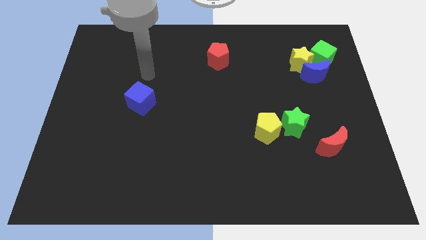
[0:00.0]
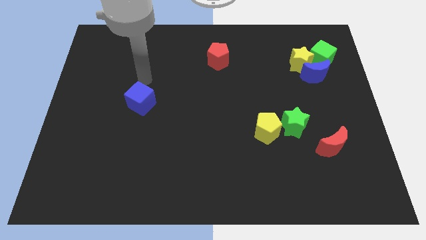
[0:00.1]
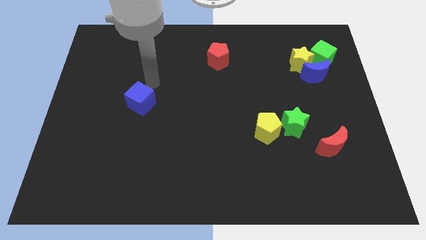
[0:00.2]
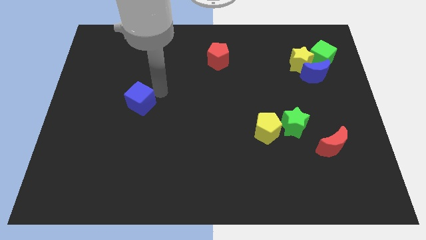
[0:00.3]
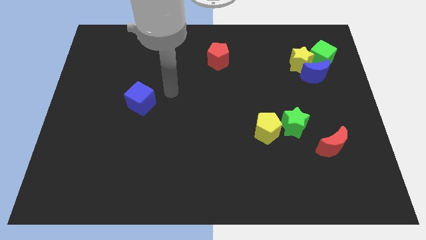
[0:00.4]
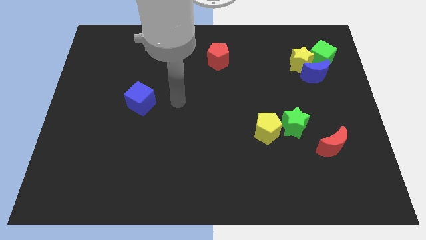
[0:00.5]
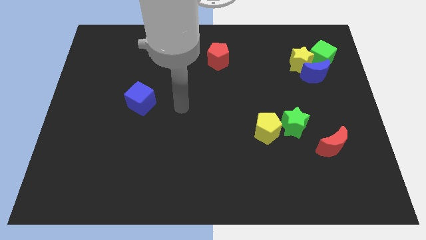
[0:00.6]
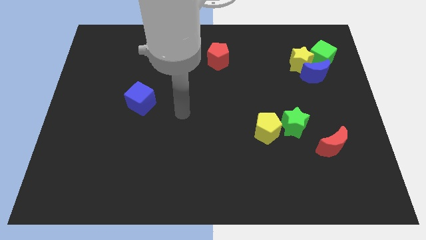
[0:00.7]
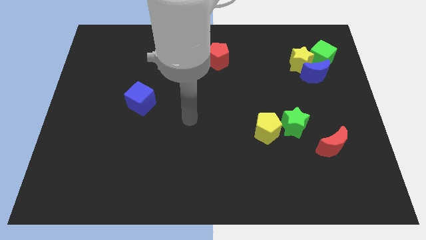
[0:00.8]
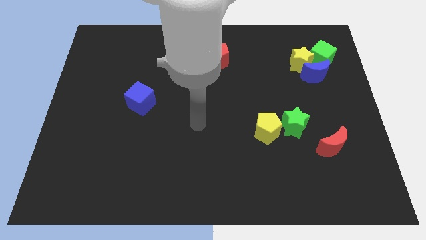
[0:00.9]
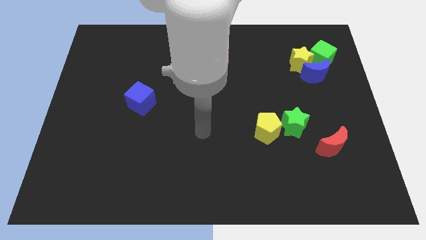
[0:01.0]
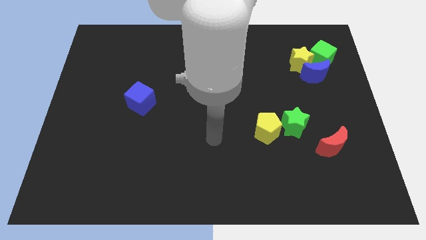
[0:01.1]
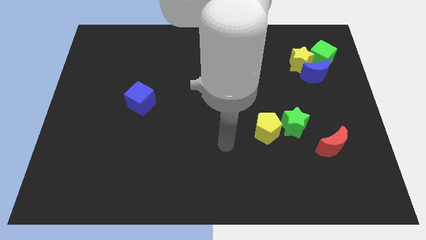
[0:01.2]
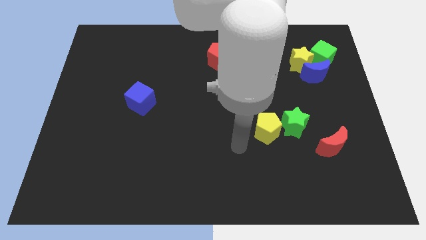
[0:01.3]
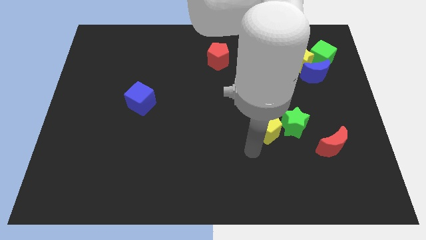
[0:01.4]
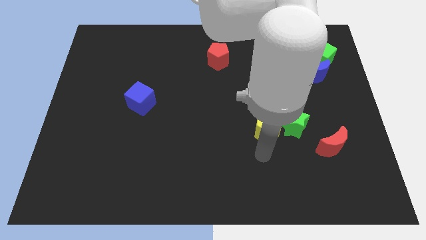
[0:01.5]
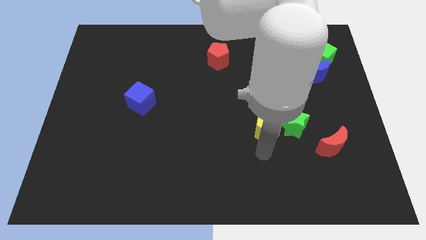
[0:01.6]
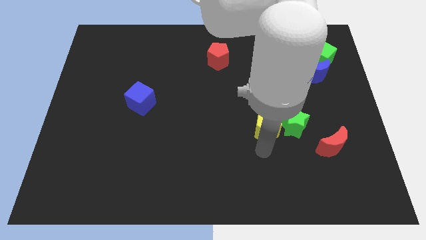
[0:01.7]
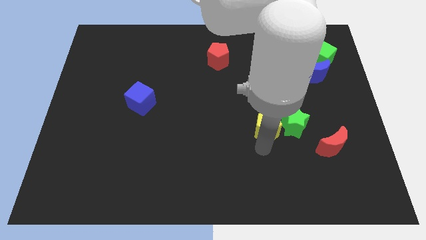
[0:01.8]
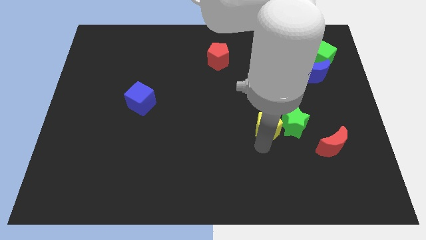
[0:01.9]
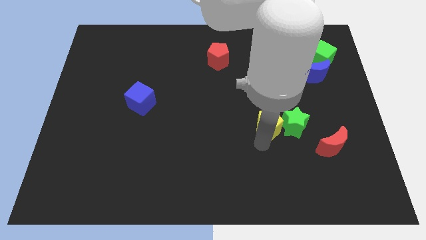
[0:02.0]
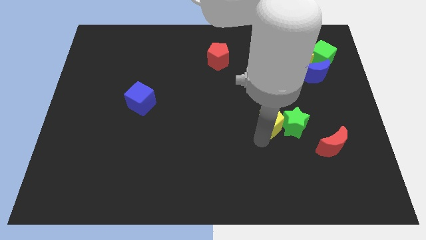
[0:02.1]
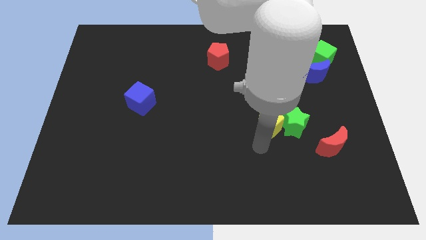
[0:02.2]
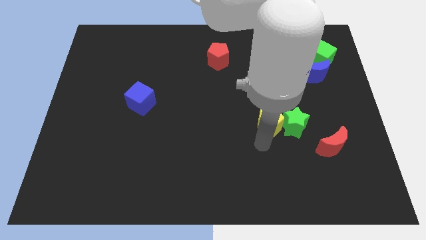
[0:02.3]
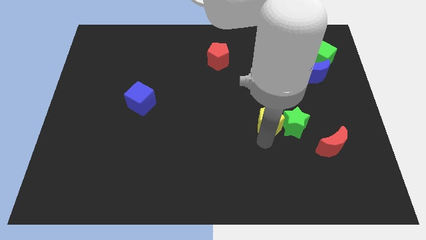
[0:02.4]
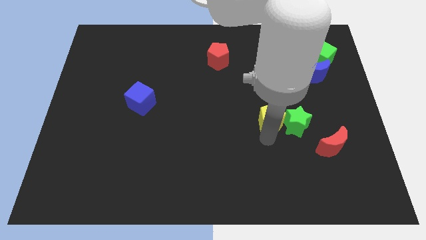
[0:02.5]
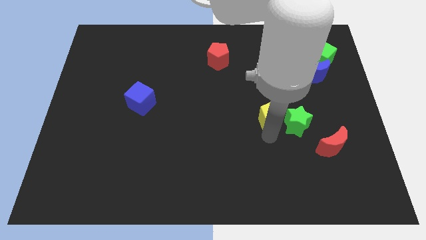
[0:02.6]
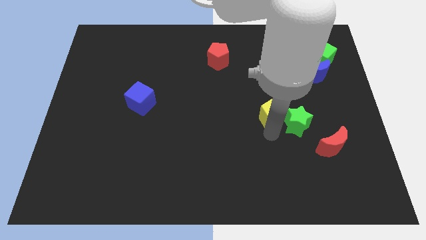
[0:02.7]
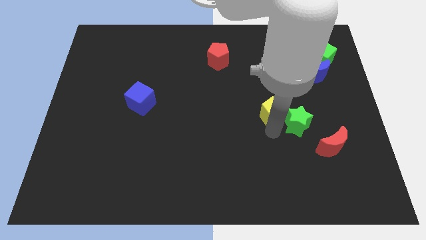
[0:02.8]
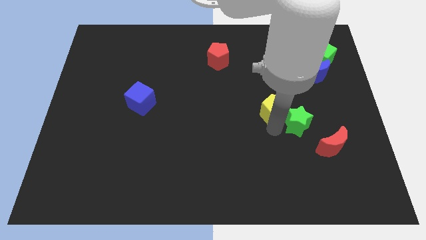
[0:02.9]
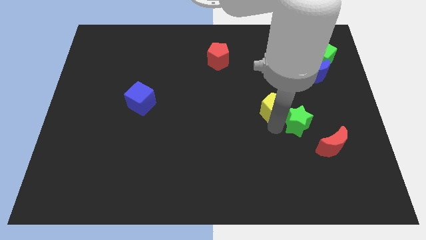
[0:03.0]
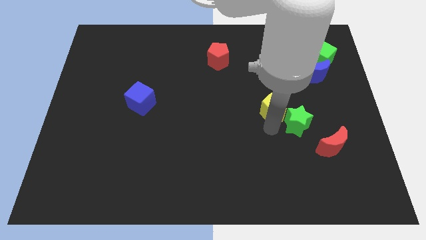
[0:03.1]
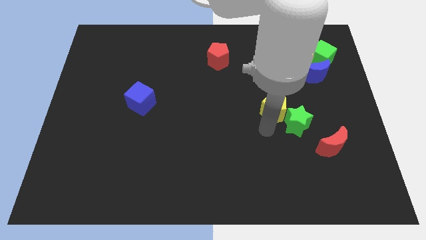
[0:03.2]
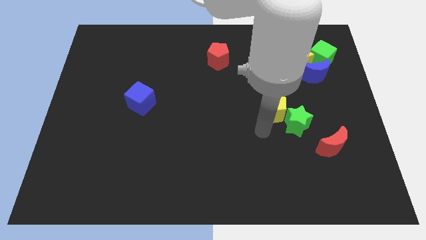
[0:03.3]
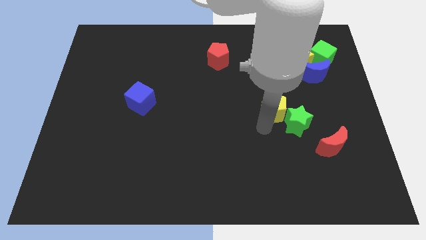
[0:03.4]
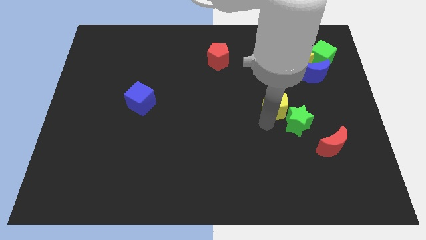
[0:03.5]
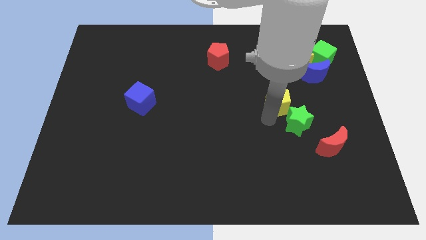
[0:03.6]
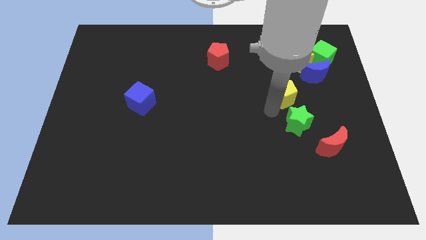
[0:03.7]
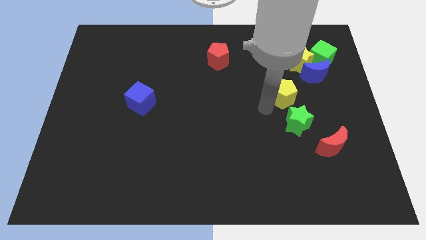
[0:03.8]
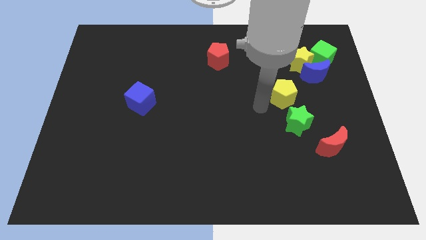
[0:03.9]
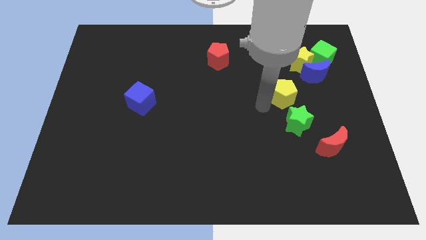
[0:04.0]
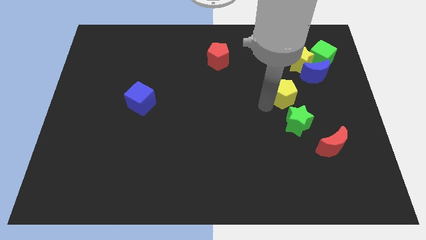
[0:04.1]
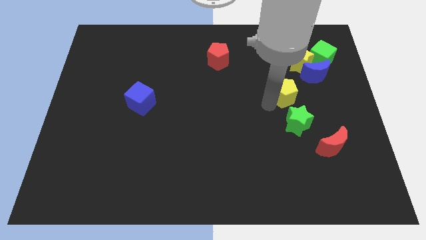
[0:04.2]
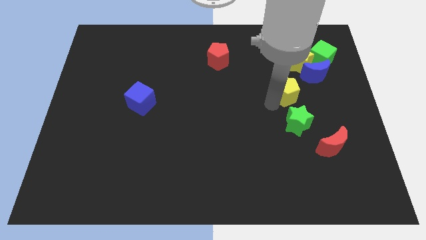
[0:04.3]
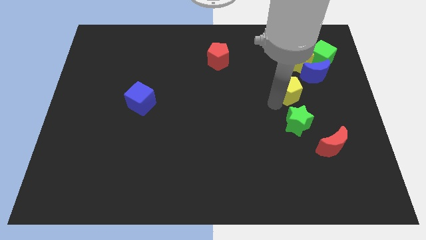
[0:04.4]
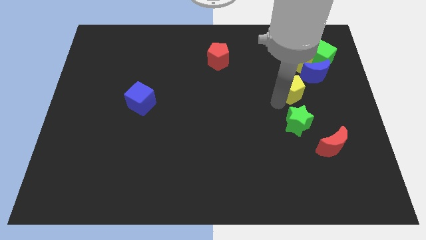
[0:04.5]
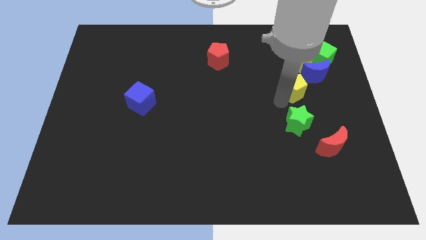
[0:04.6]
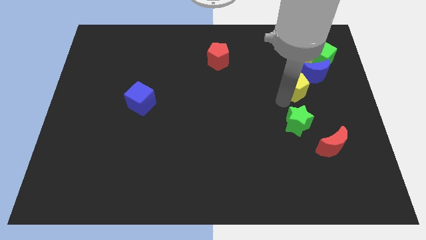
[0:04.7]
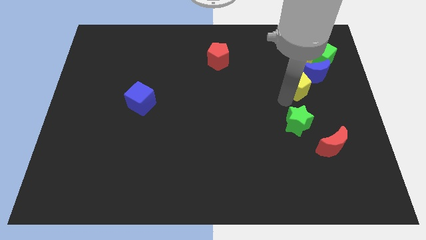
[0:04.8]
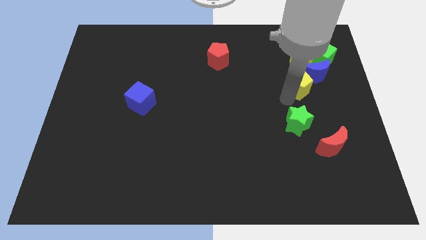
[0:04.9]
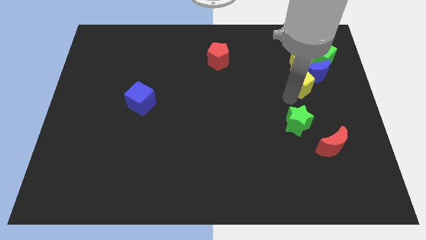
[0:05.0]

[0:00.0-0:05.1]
put the yellow pentagon towards the blue moon

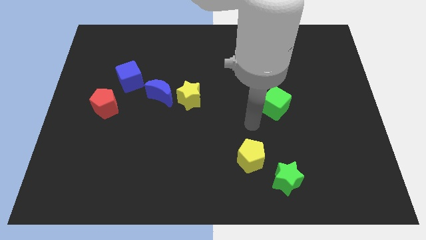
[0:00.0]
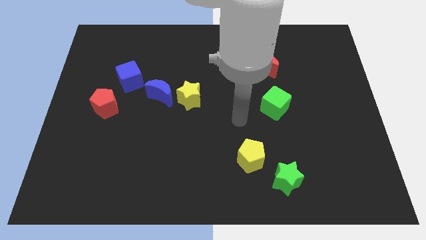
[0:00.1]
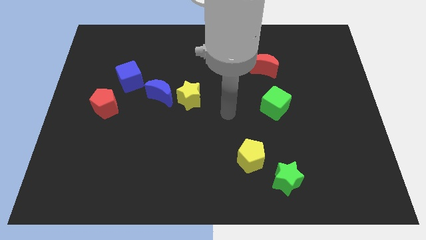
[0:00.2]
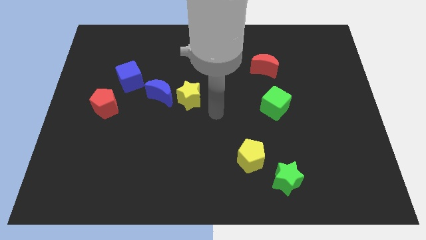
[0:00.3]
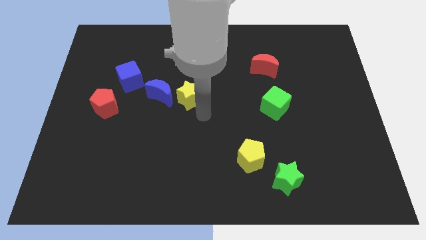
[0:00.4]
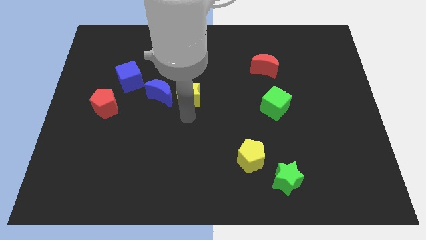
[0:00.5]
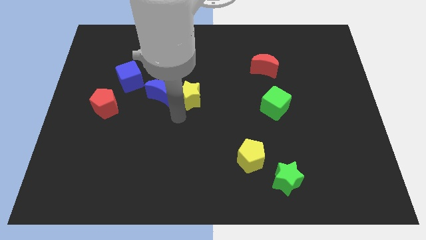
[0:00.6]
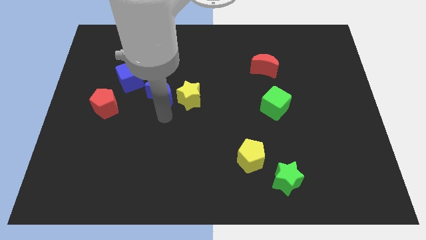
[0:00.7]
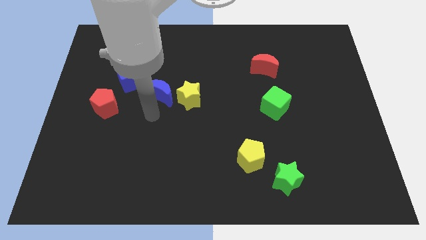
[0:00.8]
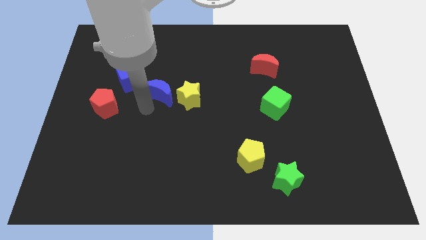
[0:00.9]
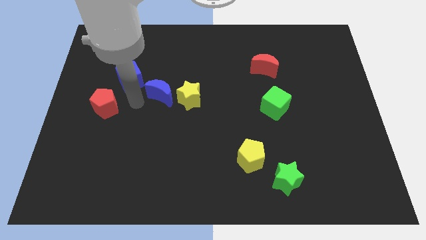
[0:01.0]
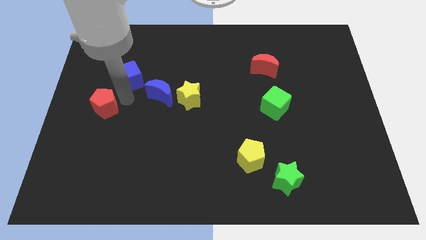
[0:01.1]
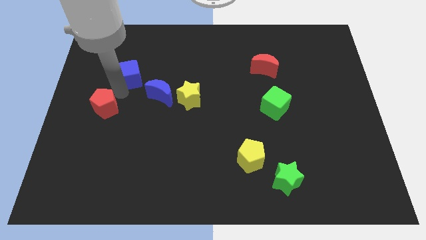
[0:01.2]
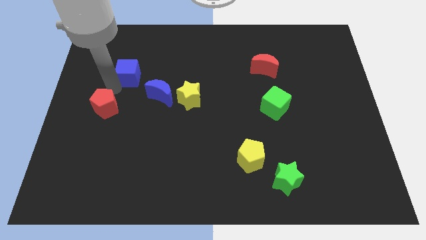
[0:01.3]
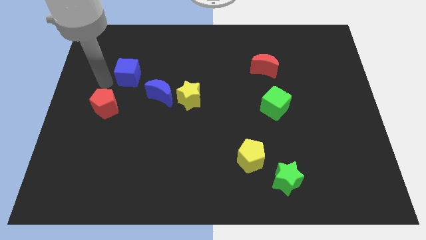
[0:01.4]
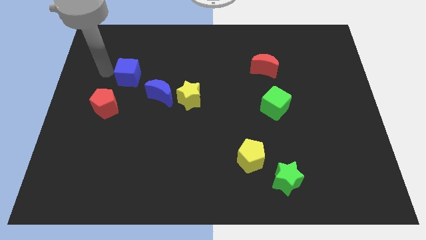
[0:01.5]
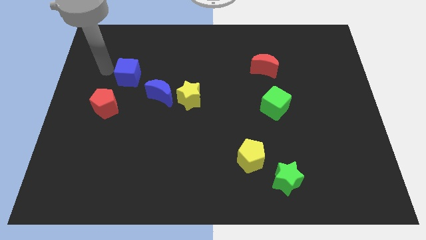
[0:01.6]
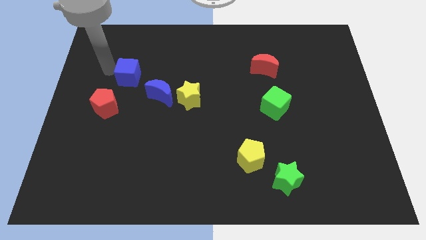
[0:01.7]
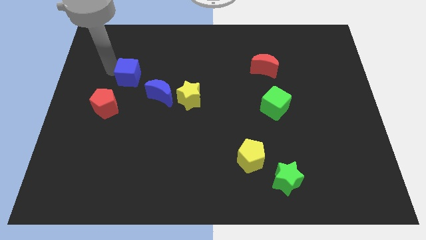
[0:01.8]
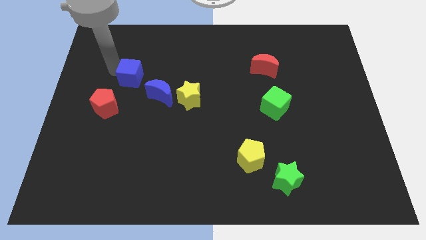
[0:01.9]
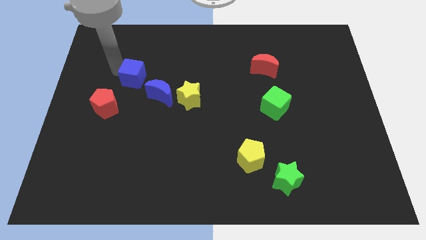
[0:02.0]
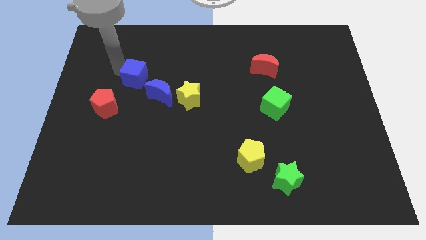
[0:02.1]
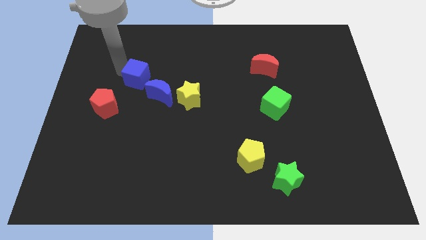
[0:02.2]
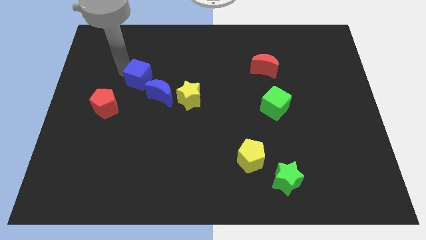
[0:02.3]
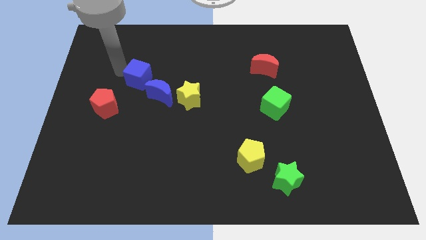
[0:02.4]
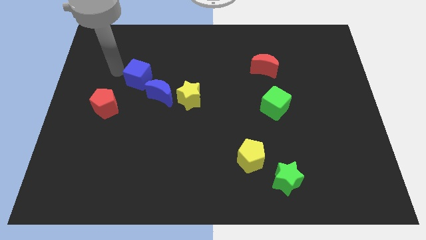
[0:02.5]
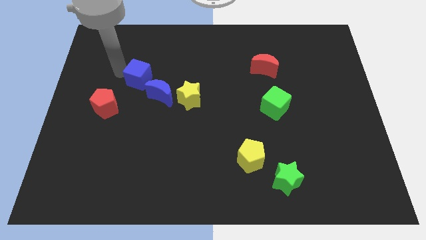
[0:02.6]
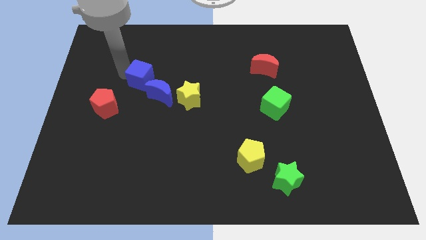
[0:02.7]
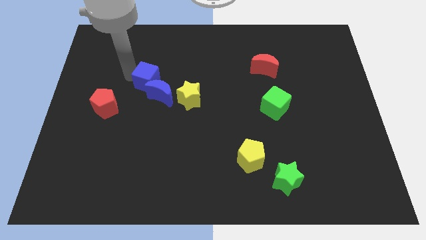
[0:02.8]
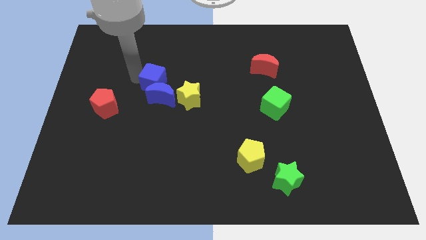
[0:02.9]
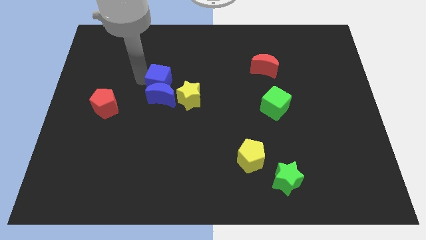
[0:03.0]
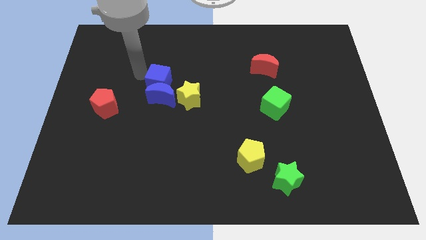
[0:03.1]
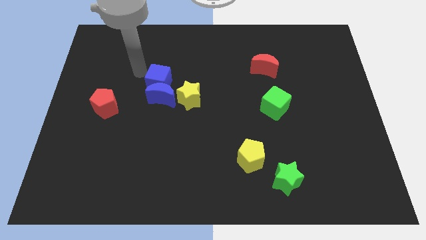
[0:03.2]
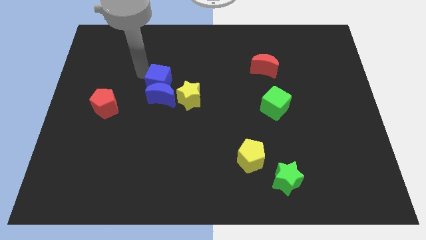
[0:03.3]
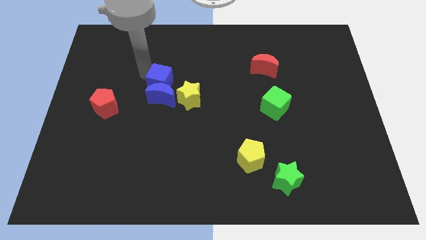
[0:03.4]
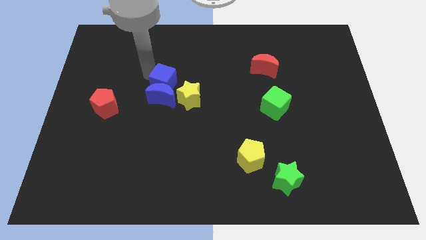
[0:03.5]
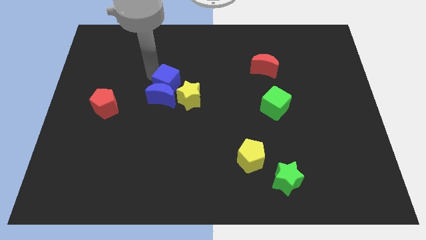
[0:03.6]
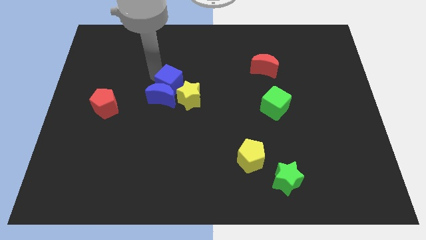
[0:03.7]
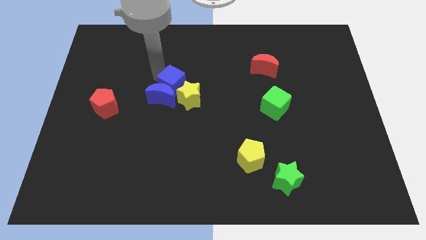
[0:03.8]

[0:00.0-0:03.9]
move the blue cube to the yellow star
